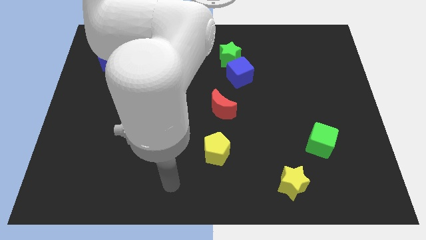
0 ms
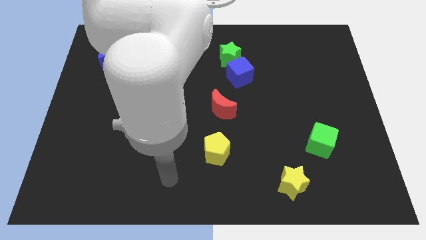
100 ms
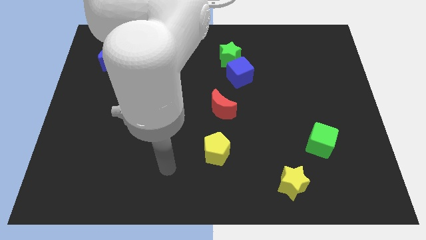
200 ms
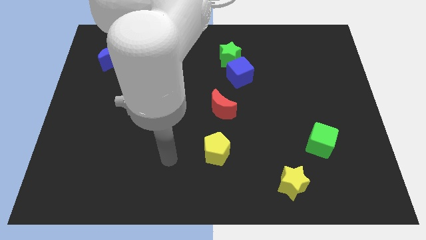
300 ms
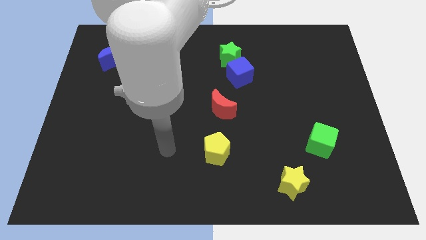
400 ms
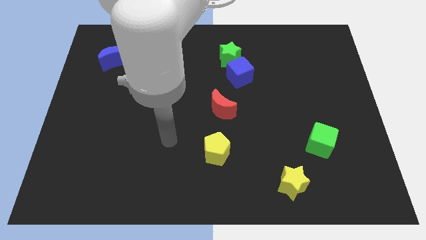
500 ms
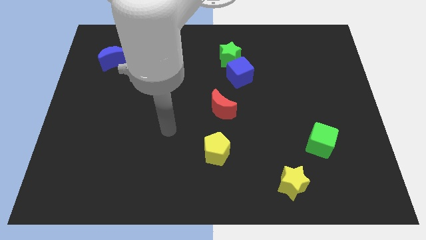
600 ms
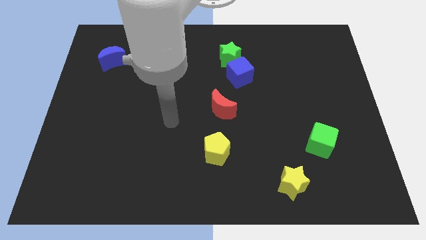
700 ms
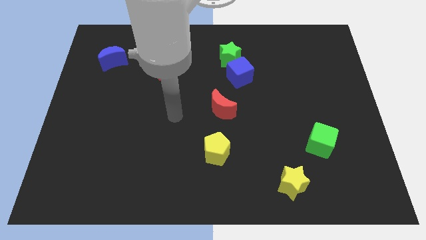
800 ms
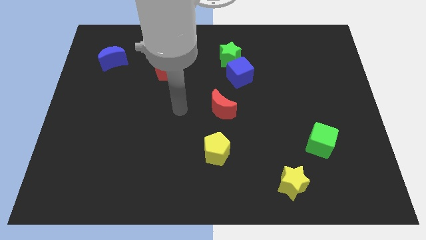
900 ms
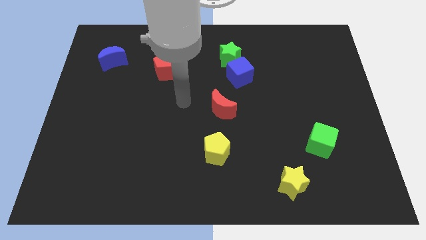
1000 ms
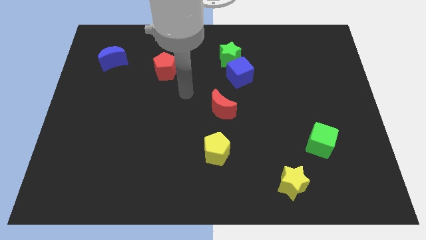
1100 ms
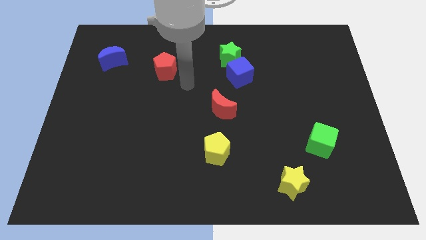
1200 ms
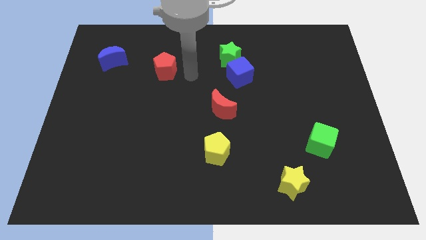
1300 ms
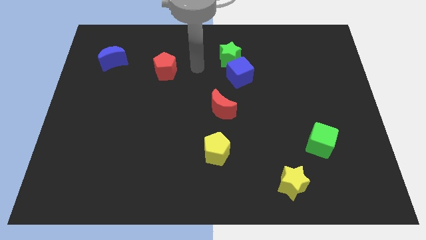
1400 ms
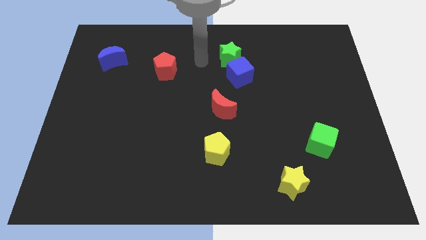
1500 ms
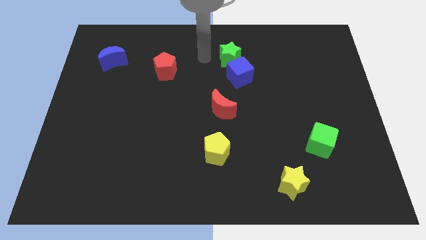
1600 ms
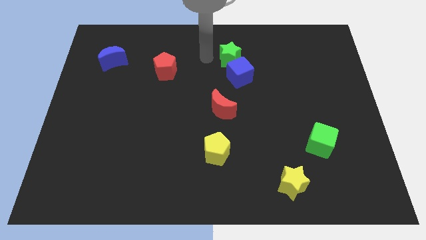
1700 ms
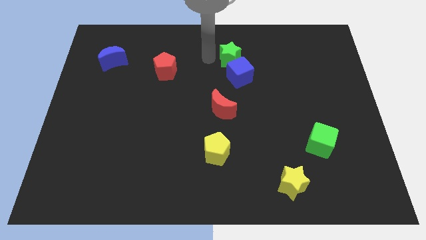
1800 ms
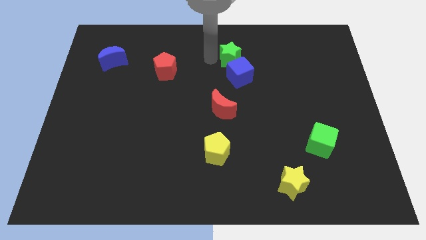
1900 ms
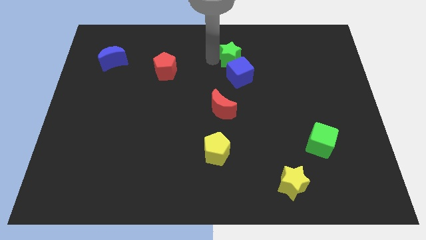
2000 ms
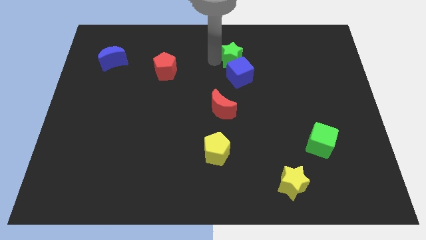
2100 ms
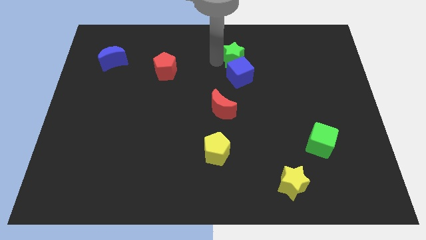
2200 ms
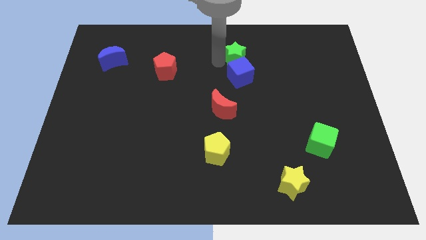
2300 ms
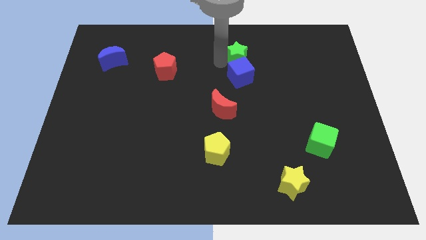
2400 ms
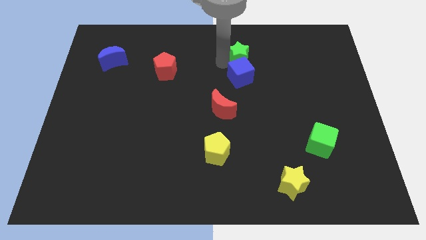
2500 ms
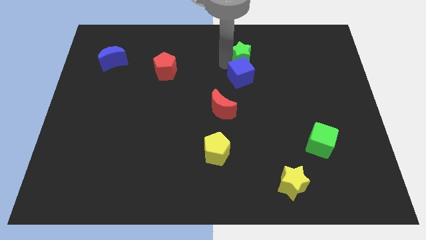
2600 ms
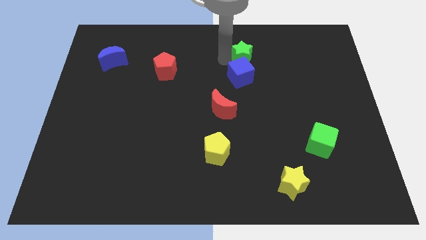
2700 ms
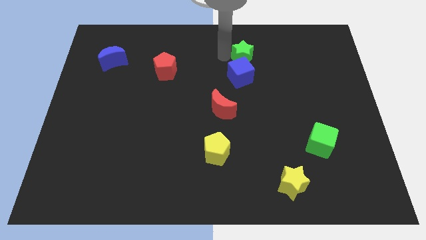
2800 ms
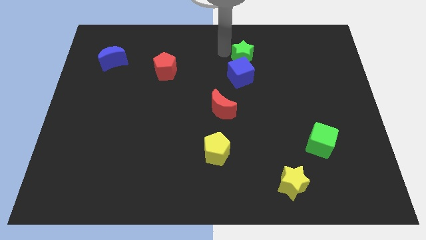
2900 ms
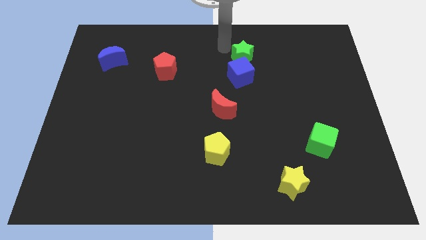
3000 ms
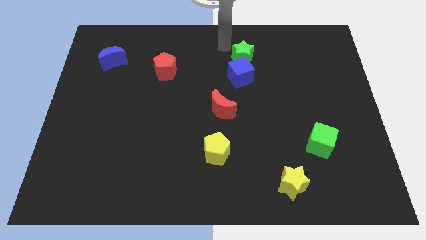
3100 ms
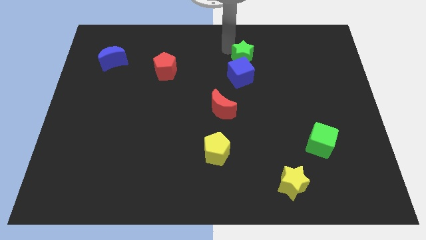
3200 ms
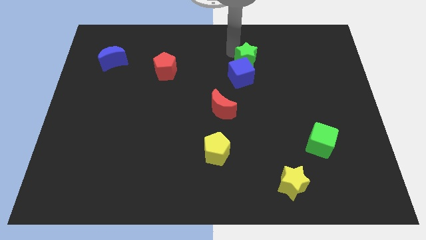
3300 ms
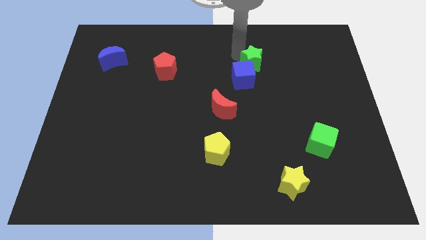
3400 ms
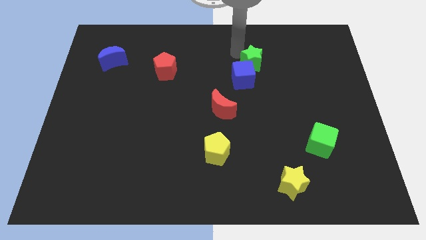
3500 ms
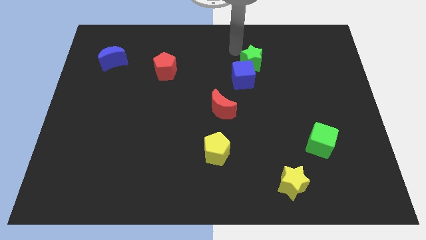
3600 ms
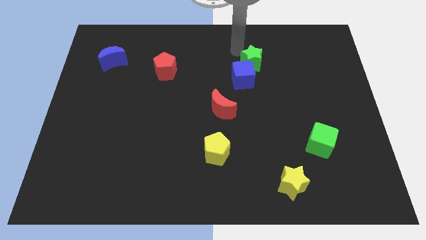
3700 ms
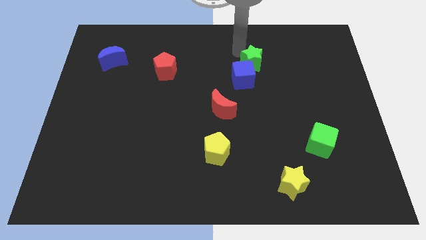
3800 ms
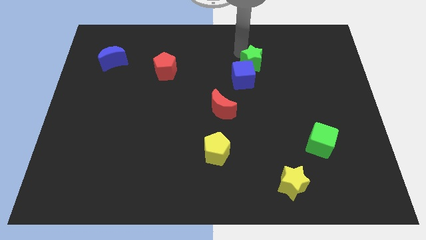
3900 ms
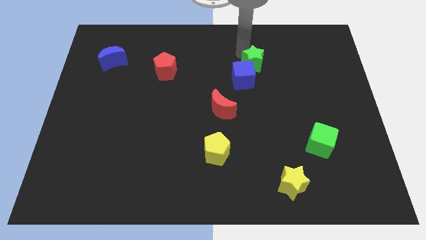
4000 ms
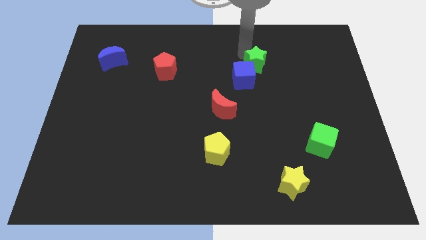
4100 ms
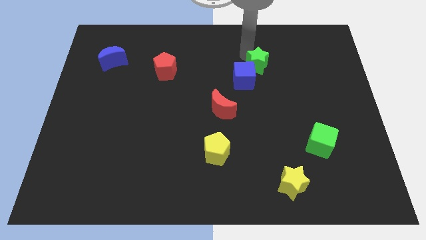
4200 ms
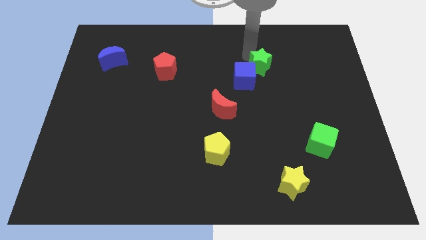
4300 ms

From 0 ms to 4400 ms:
slide the green star slightly down and to the right diagonally

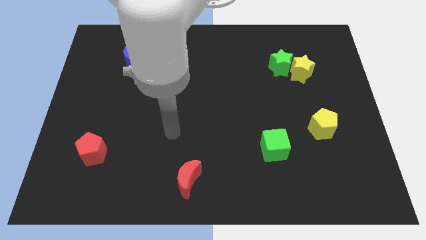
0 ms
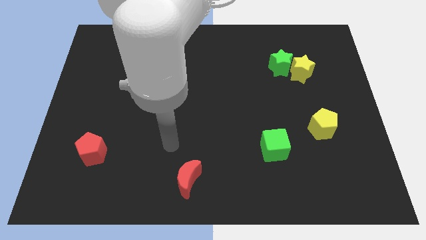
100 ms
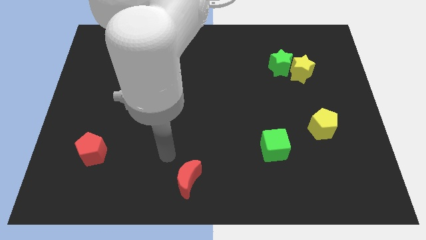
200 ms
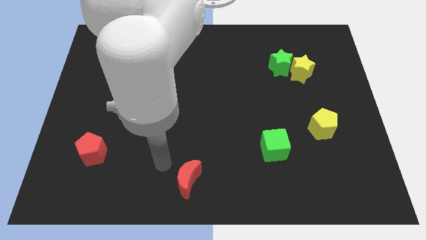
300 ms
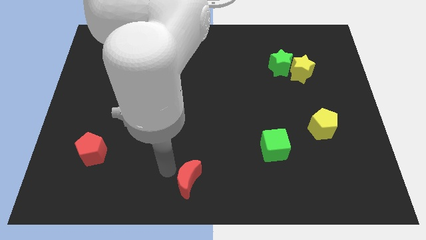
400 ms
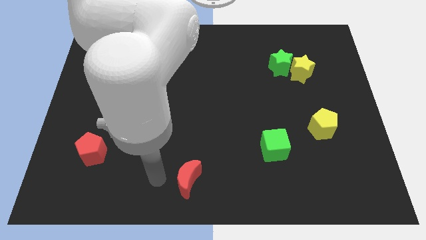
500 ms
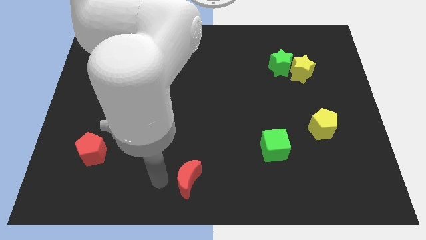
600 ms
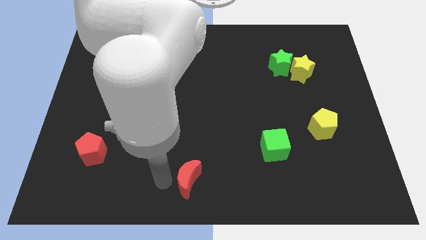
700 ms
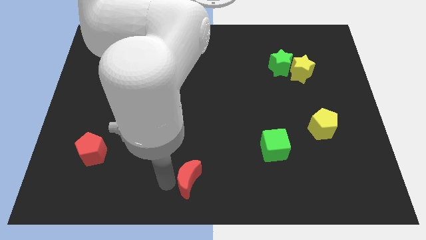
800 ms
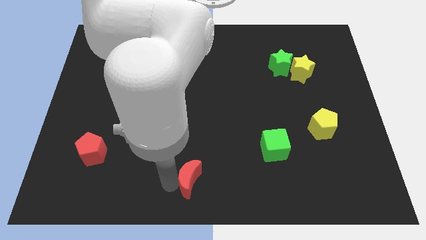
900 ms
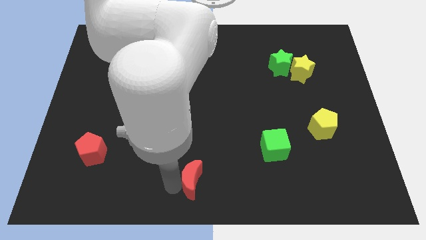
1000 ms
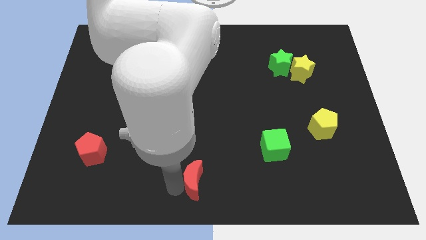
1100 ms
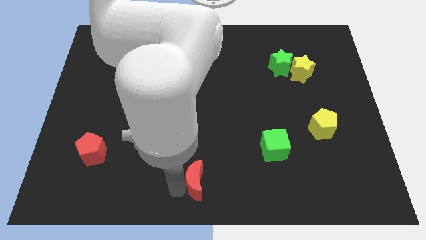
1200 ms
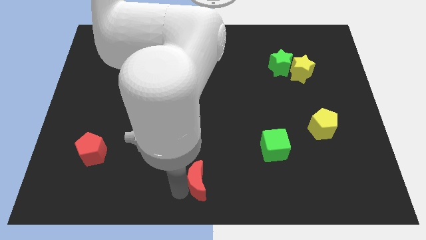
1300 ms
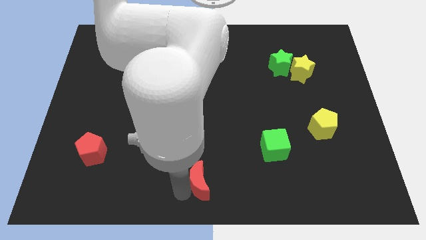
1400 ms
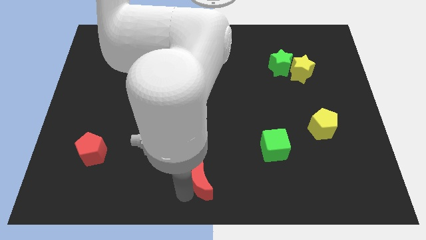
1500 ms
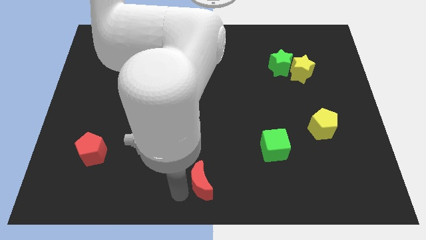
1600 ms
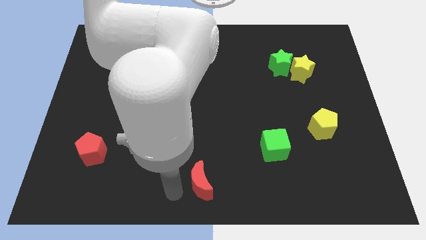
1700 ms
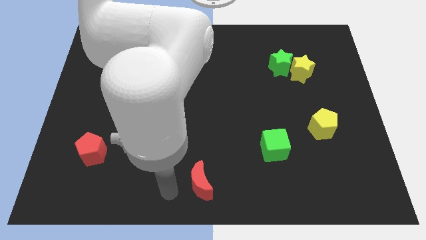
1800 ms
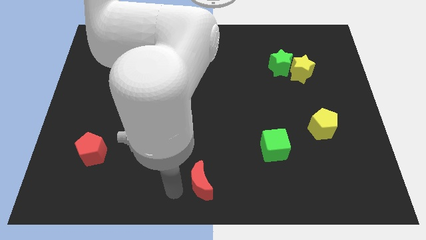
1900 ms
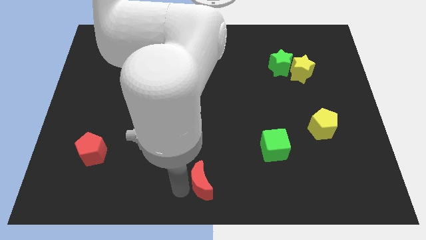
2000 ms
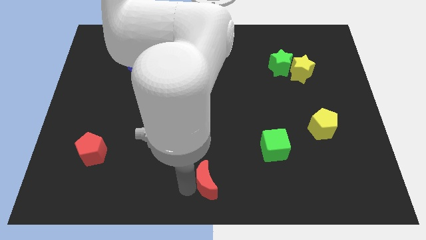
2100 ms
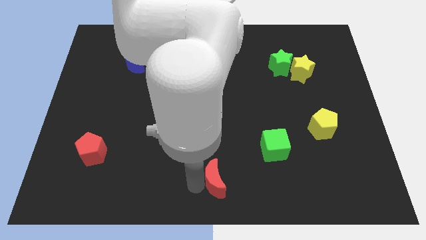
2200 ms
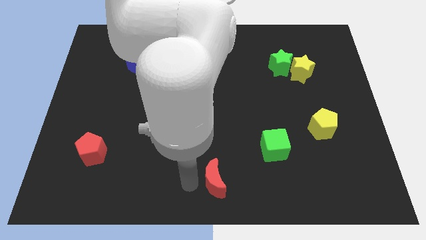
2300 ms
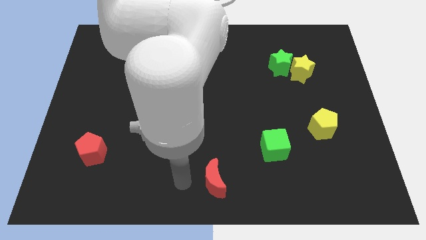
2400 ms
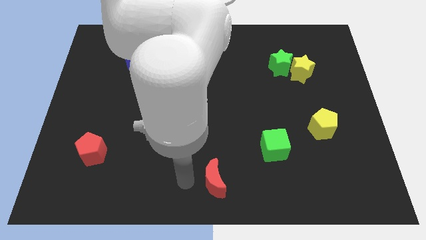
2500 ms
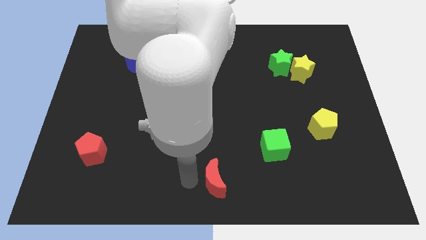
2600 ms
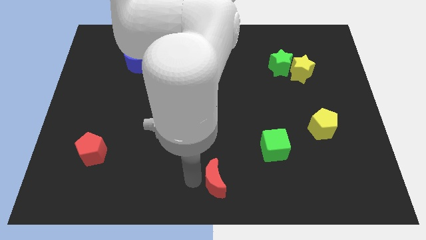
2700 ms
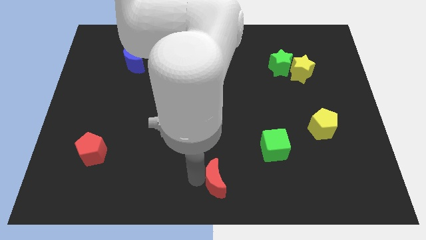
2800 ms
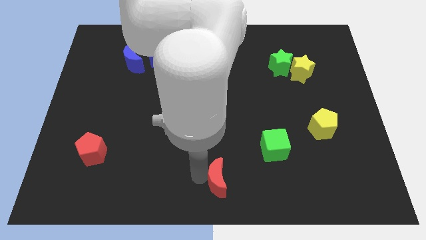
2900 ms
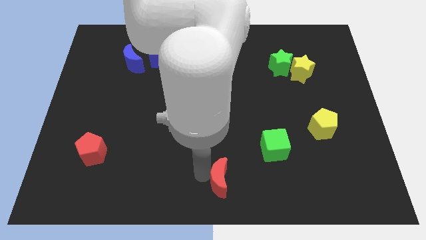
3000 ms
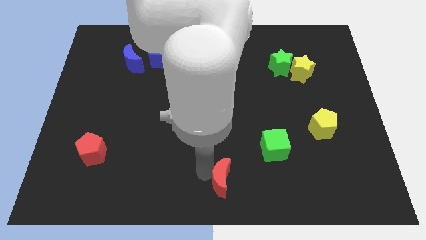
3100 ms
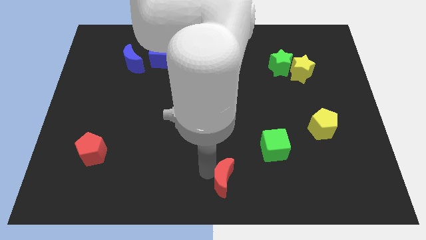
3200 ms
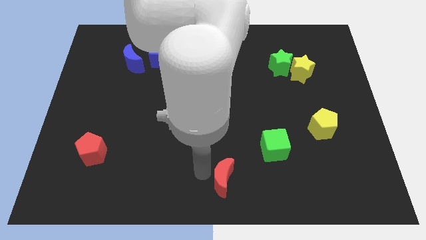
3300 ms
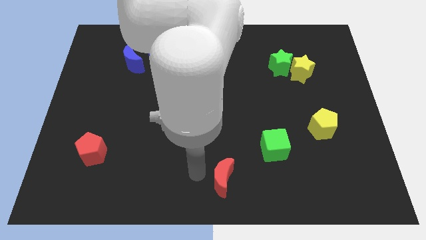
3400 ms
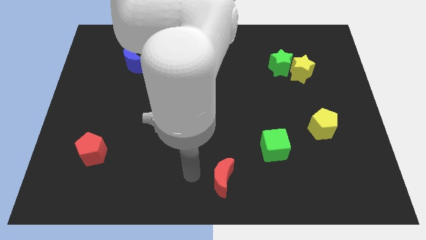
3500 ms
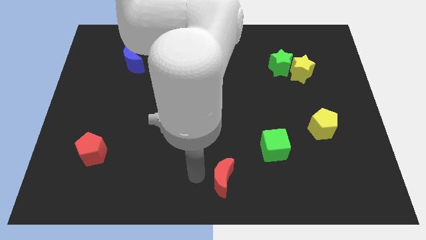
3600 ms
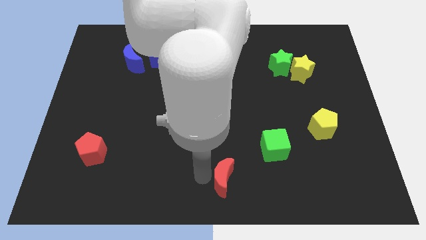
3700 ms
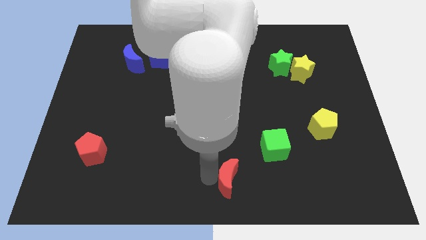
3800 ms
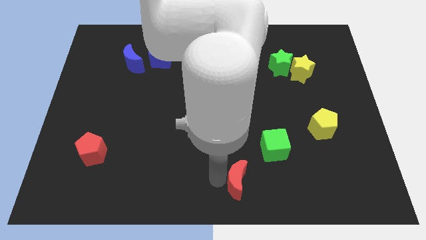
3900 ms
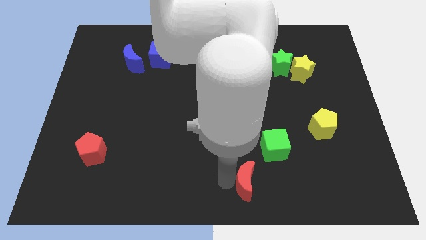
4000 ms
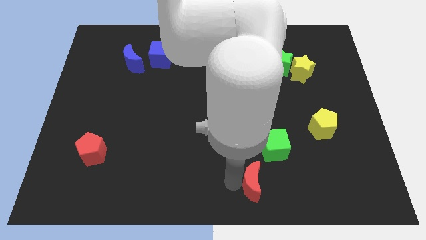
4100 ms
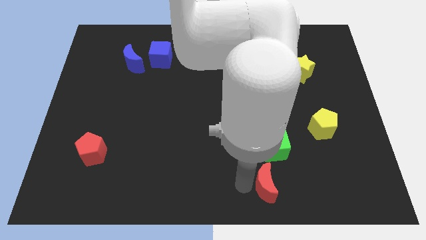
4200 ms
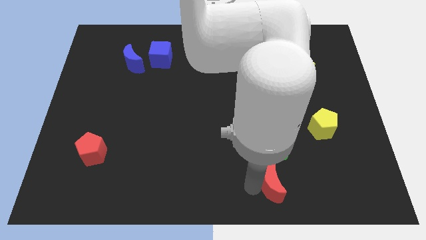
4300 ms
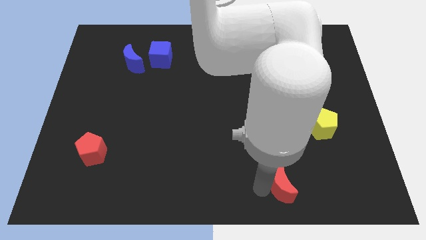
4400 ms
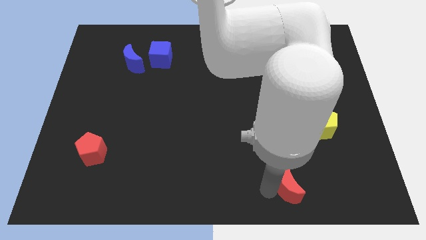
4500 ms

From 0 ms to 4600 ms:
move the red moon right
